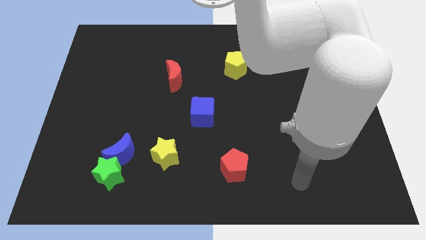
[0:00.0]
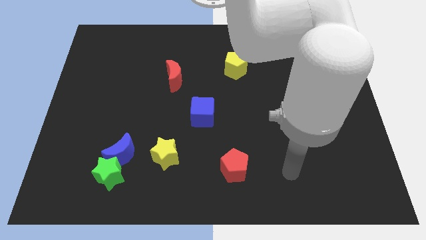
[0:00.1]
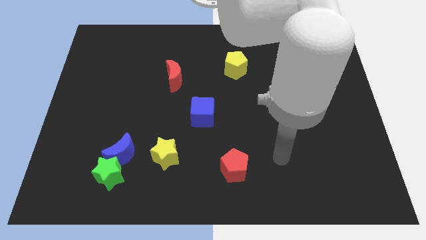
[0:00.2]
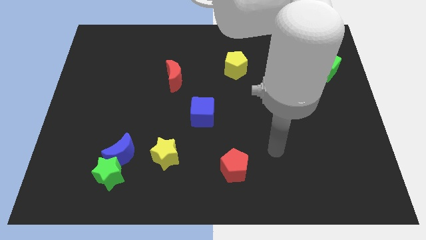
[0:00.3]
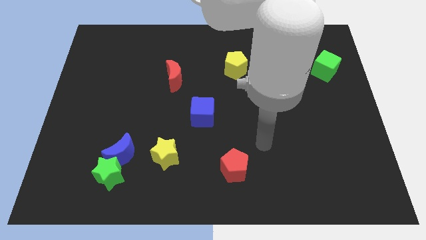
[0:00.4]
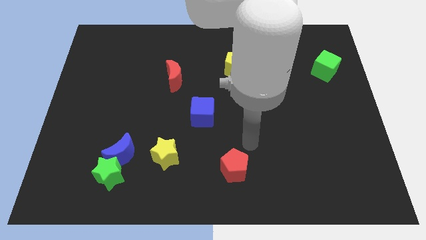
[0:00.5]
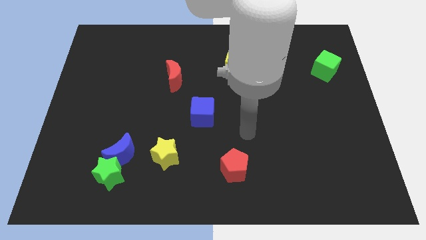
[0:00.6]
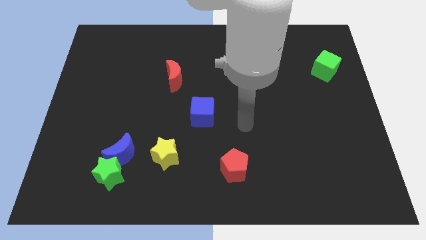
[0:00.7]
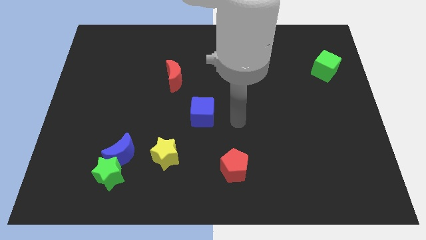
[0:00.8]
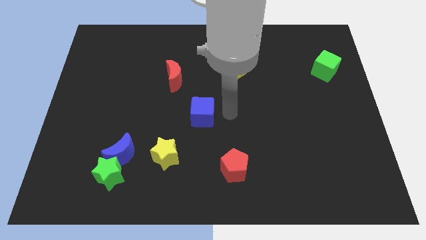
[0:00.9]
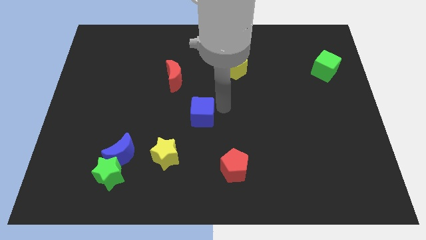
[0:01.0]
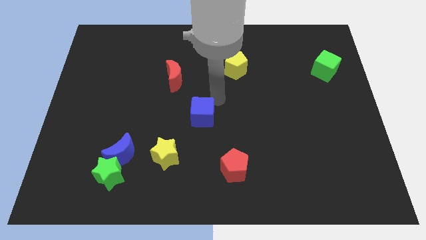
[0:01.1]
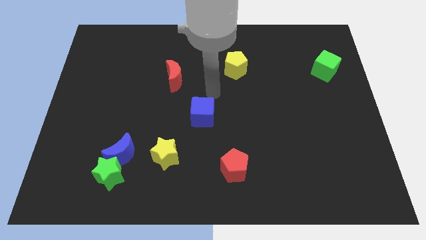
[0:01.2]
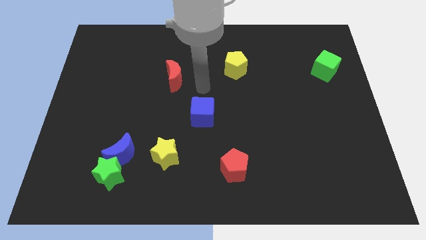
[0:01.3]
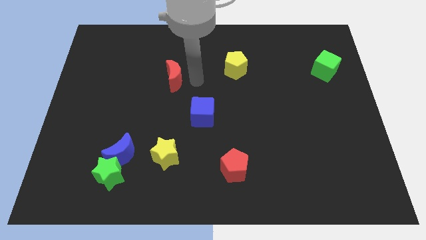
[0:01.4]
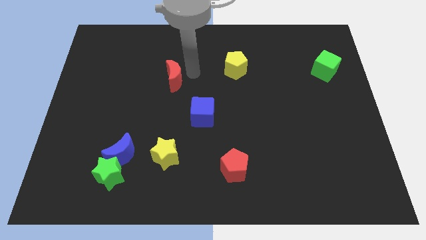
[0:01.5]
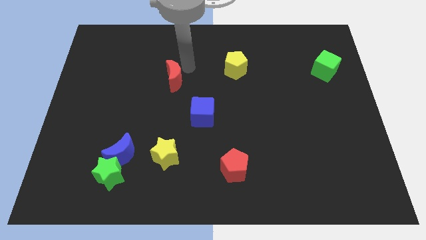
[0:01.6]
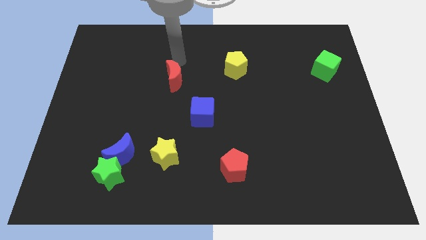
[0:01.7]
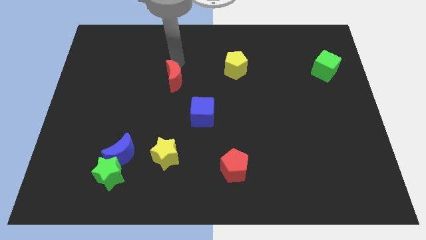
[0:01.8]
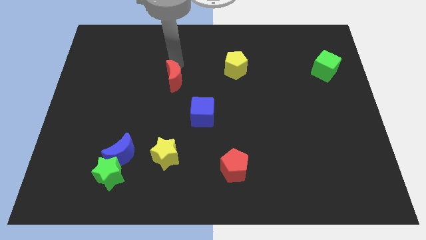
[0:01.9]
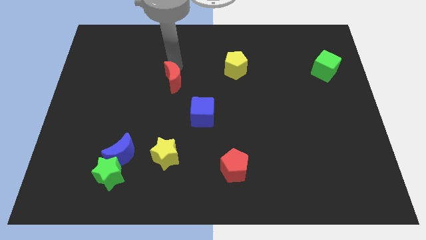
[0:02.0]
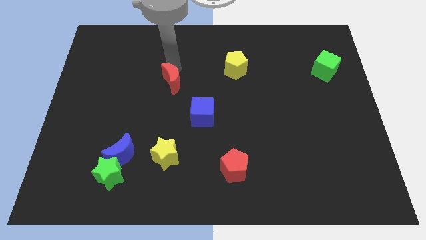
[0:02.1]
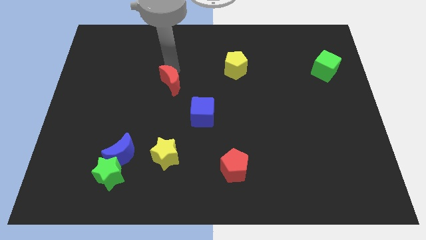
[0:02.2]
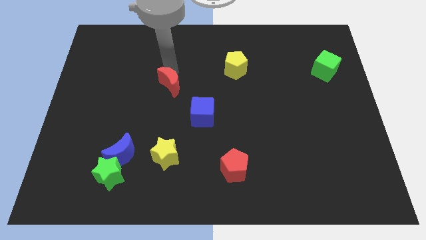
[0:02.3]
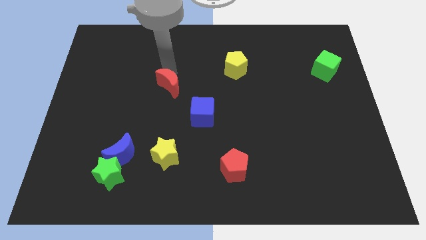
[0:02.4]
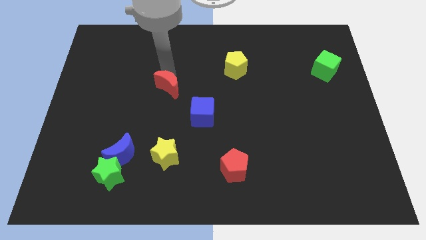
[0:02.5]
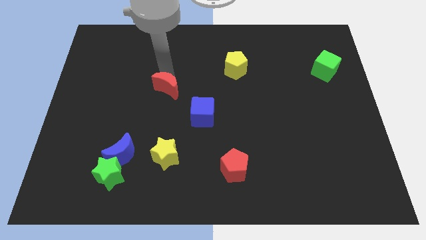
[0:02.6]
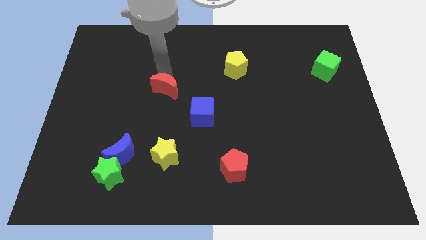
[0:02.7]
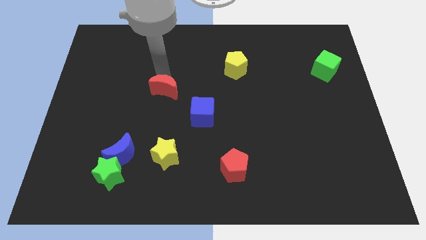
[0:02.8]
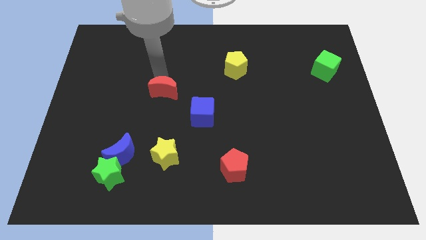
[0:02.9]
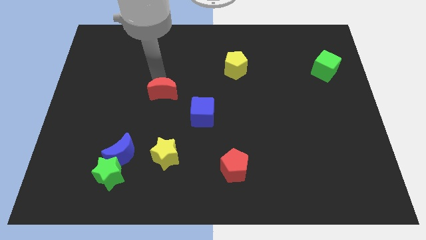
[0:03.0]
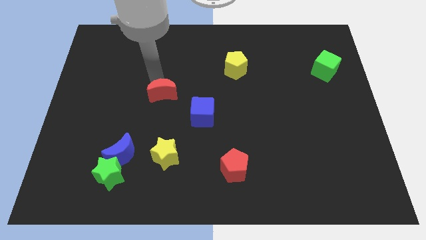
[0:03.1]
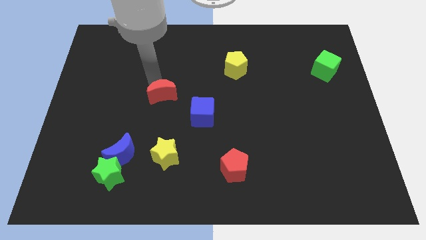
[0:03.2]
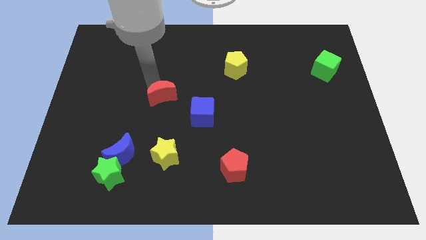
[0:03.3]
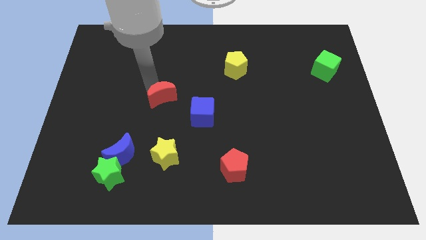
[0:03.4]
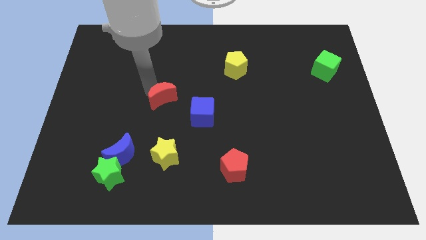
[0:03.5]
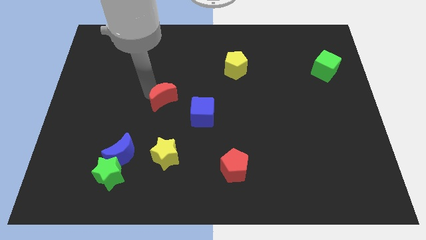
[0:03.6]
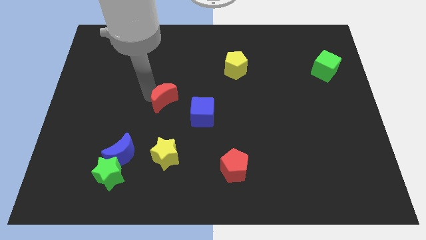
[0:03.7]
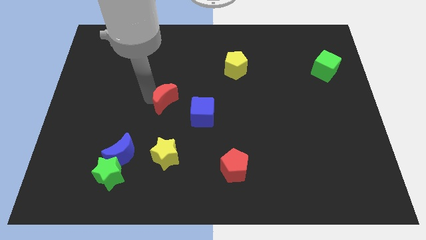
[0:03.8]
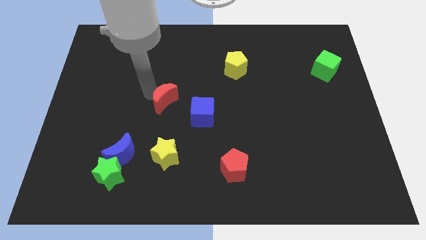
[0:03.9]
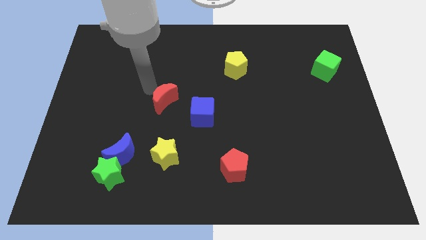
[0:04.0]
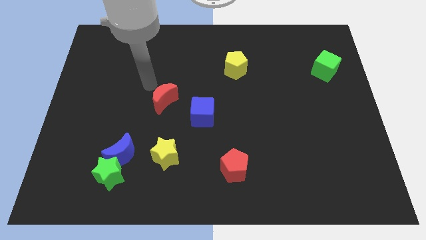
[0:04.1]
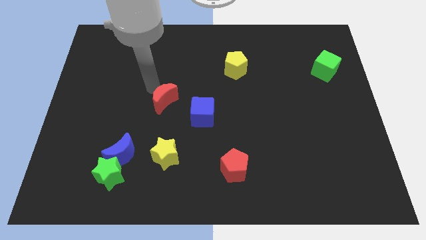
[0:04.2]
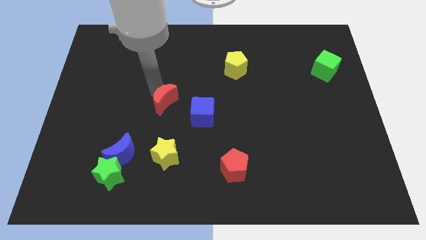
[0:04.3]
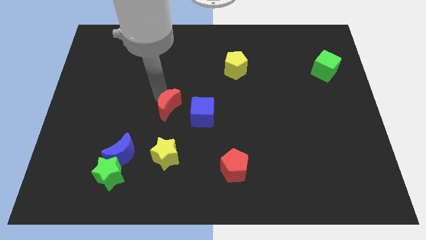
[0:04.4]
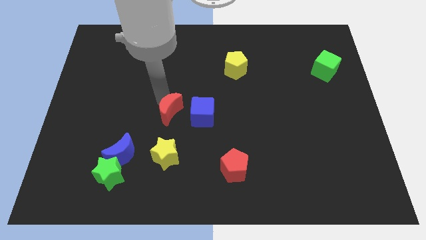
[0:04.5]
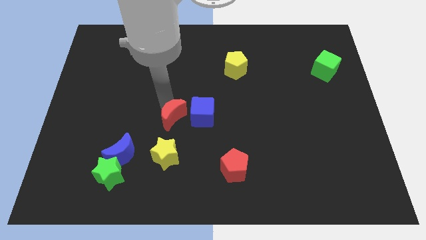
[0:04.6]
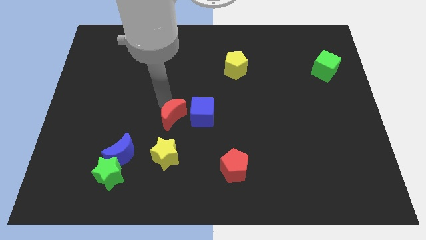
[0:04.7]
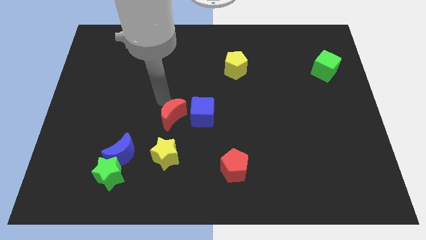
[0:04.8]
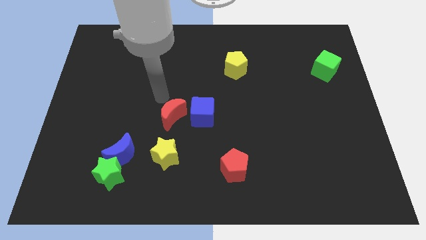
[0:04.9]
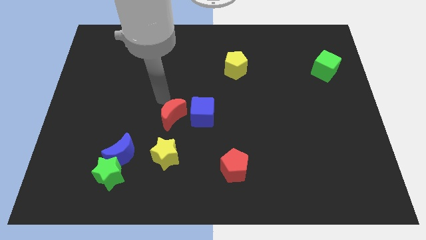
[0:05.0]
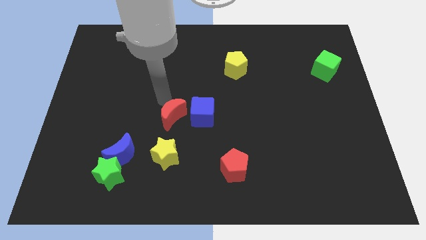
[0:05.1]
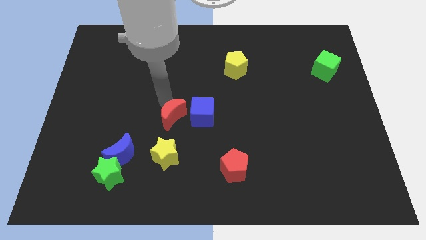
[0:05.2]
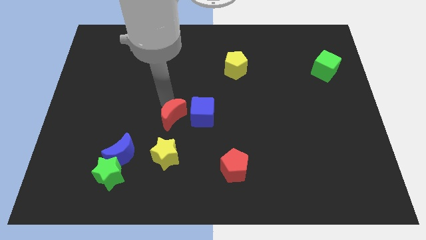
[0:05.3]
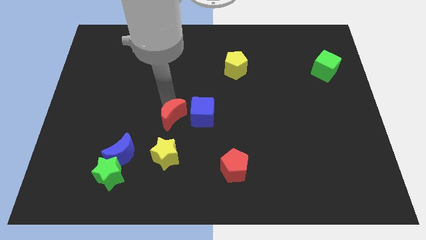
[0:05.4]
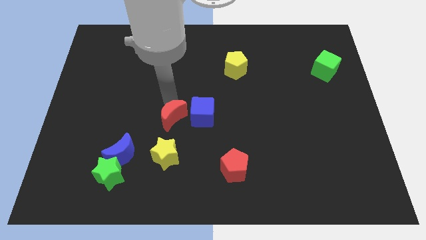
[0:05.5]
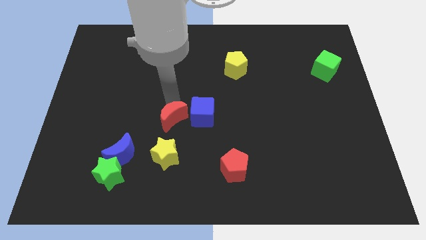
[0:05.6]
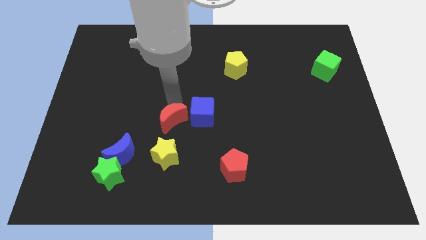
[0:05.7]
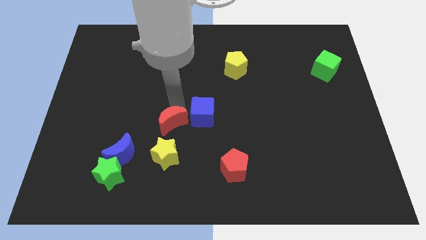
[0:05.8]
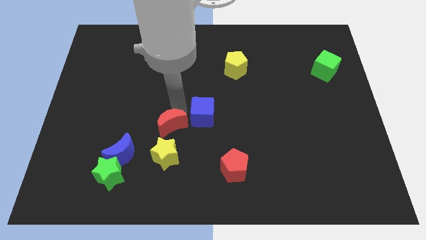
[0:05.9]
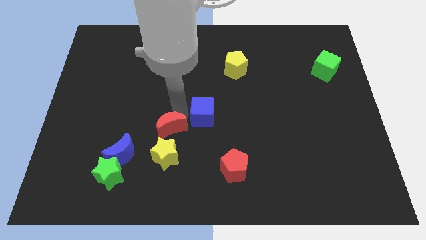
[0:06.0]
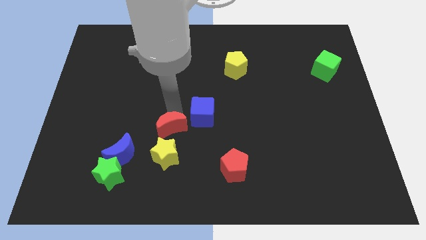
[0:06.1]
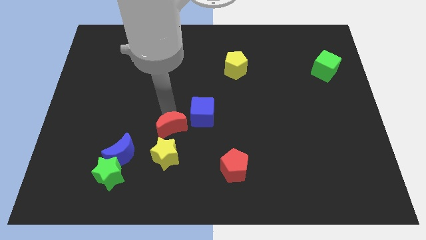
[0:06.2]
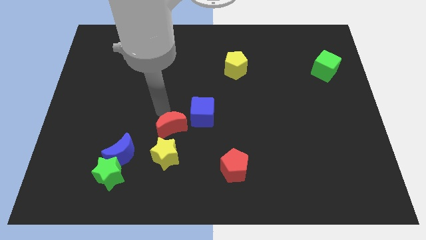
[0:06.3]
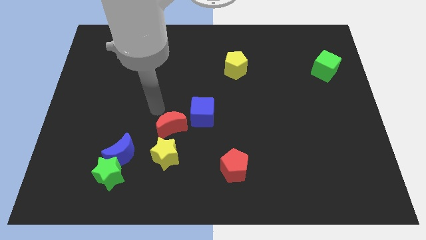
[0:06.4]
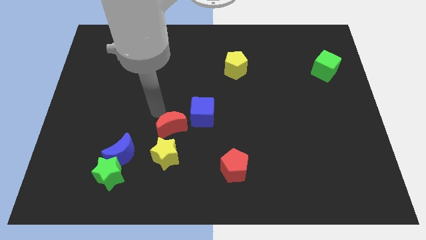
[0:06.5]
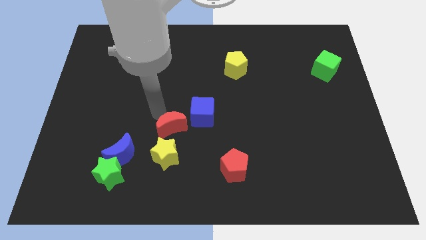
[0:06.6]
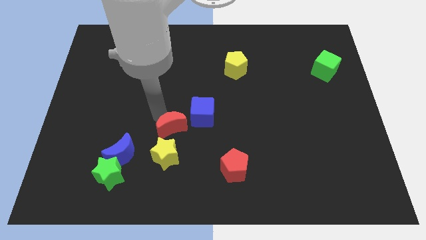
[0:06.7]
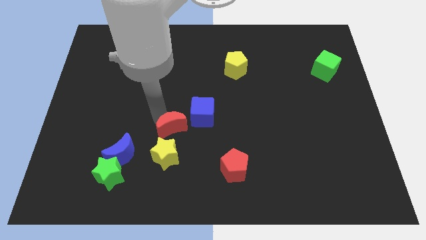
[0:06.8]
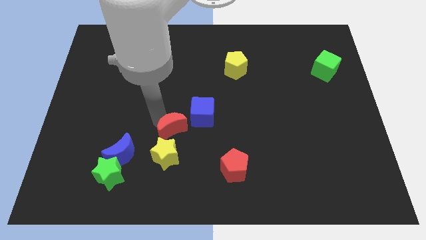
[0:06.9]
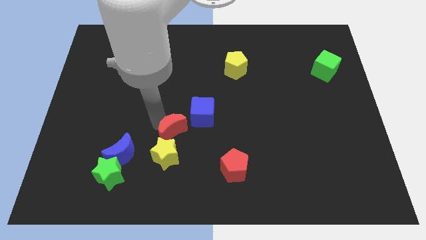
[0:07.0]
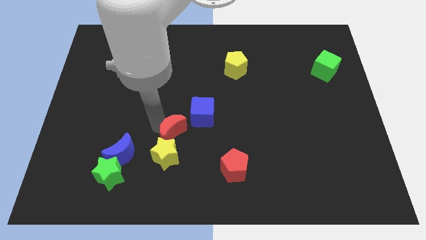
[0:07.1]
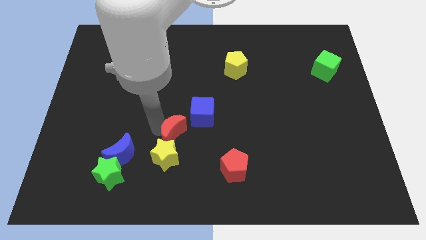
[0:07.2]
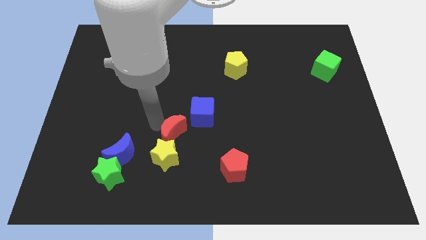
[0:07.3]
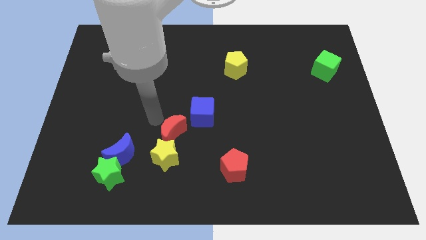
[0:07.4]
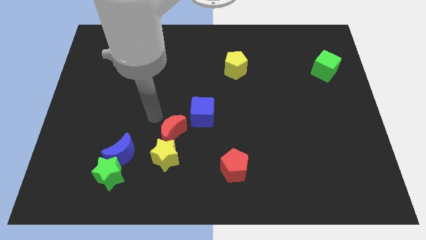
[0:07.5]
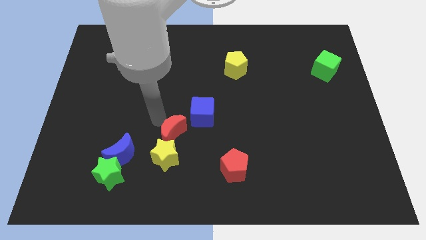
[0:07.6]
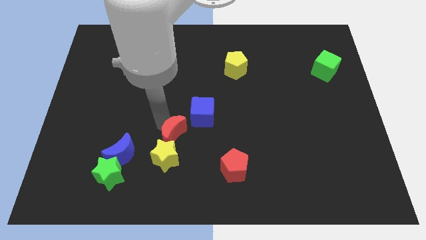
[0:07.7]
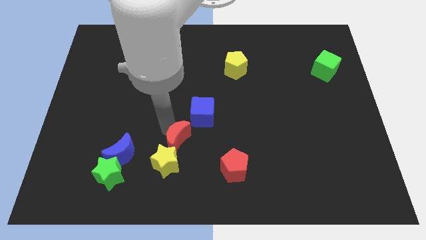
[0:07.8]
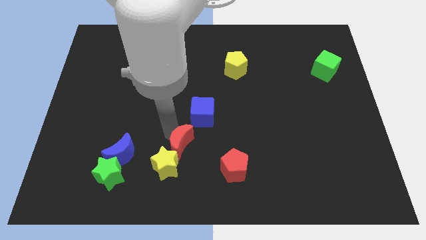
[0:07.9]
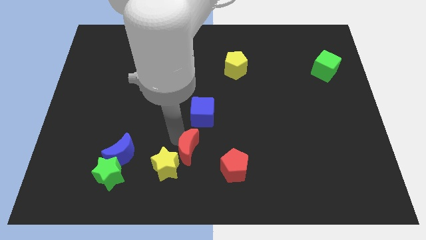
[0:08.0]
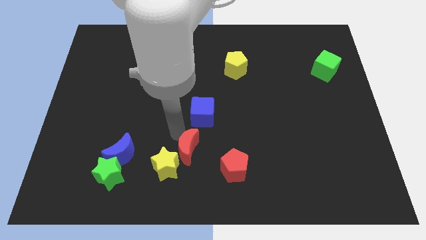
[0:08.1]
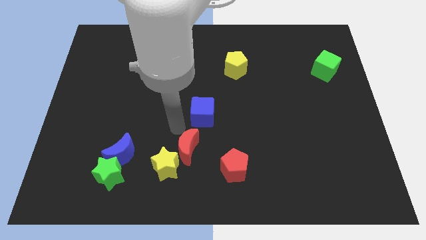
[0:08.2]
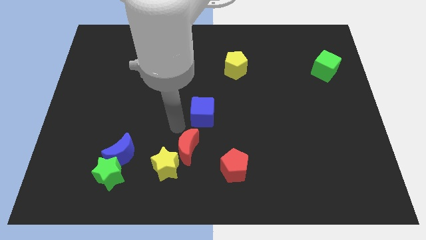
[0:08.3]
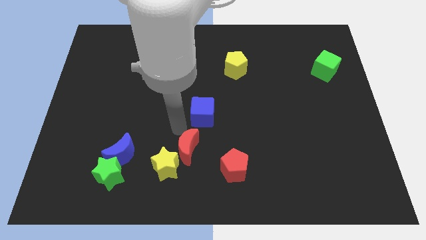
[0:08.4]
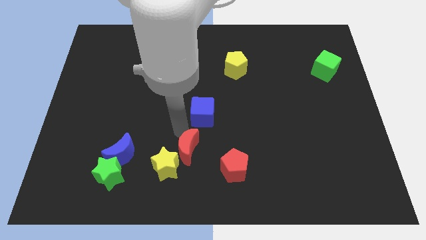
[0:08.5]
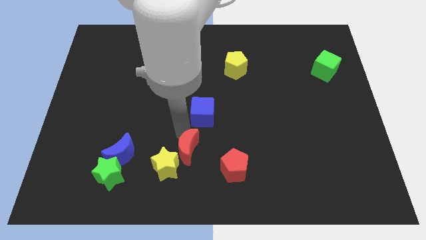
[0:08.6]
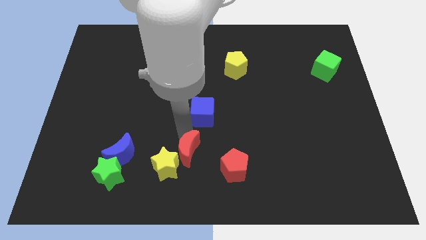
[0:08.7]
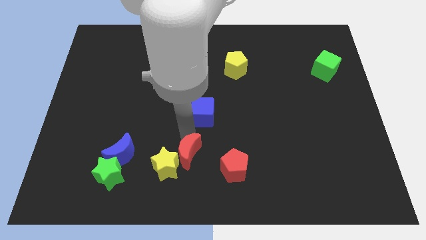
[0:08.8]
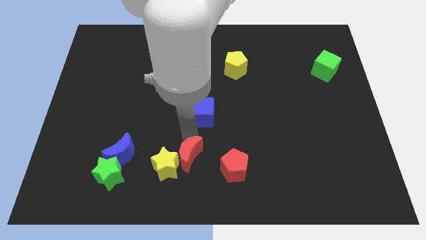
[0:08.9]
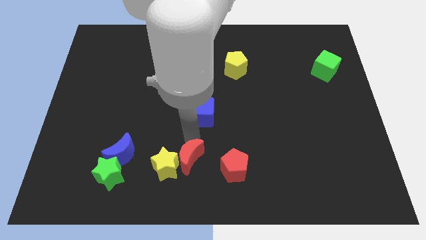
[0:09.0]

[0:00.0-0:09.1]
move the red moon to the bottom side
